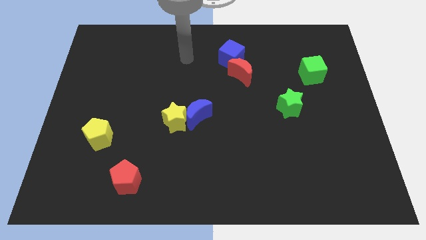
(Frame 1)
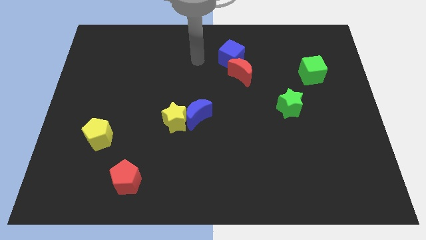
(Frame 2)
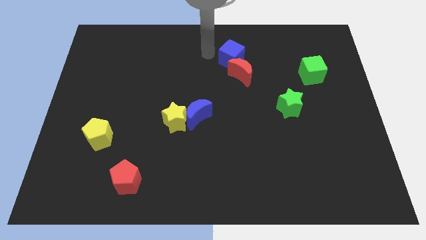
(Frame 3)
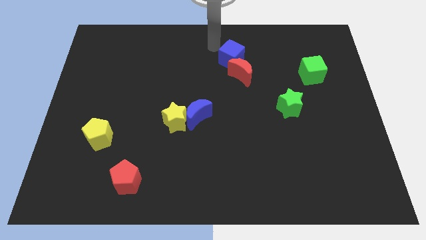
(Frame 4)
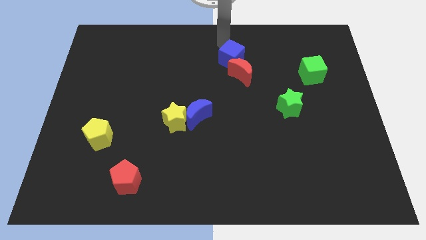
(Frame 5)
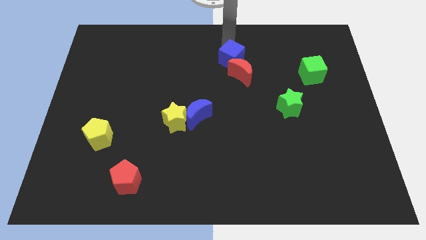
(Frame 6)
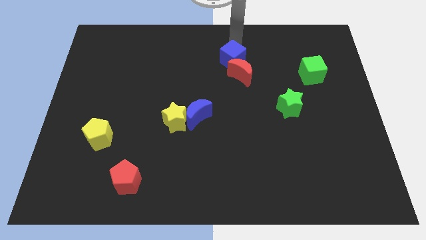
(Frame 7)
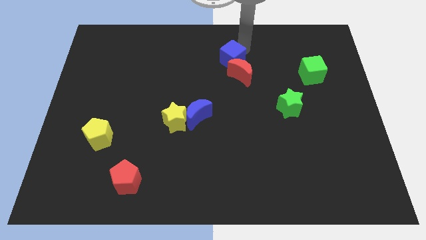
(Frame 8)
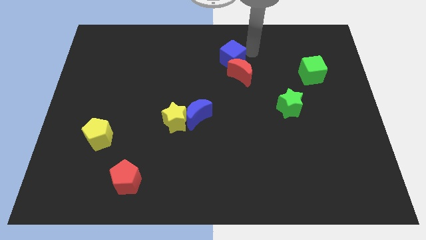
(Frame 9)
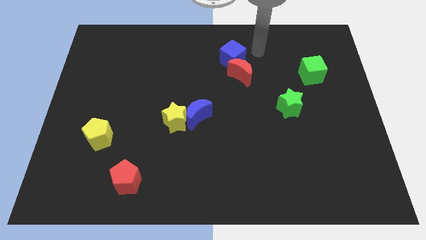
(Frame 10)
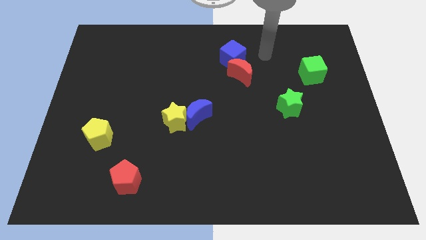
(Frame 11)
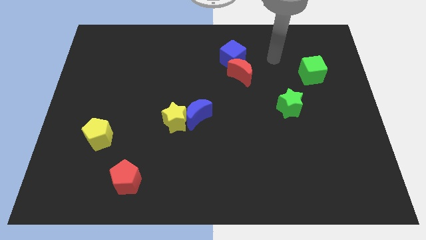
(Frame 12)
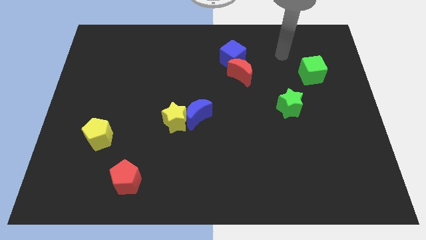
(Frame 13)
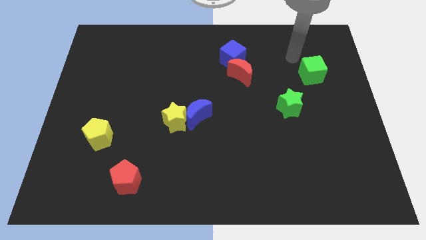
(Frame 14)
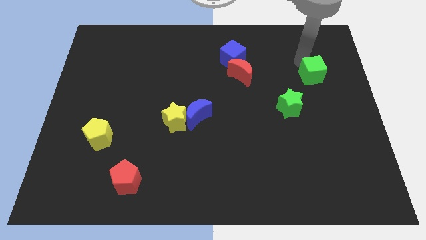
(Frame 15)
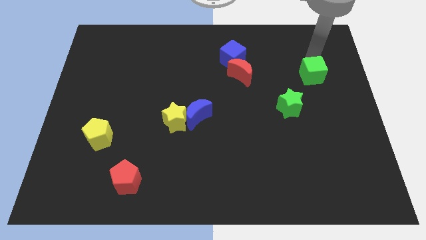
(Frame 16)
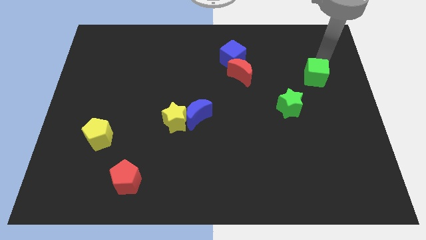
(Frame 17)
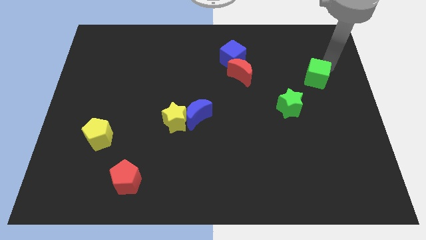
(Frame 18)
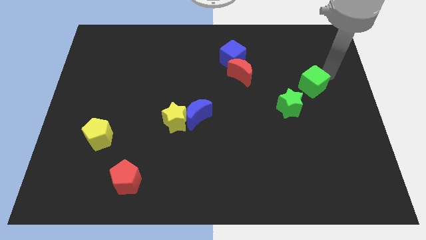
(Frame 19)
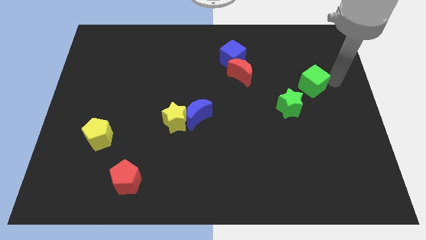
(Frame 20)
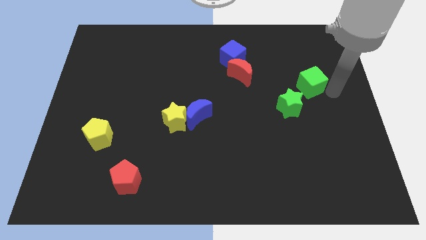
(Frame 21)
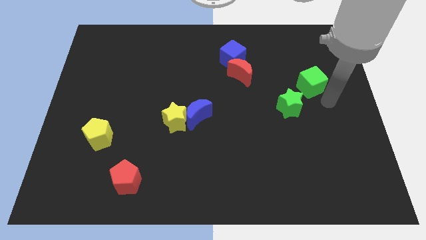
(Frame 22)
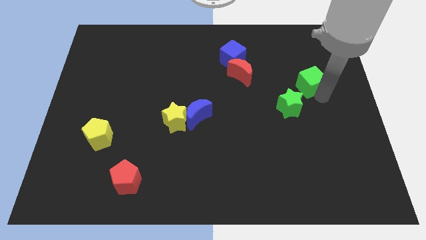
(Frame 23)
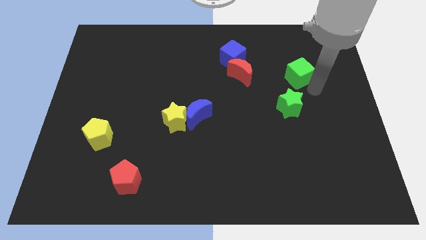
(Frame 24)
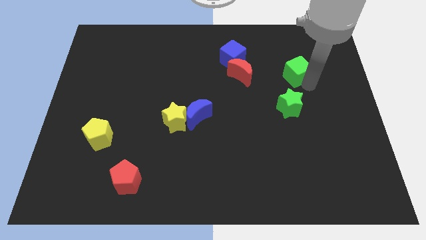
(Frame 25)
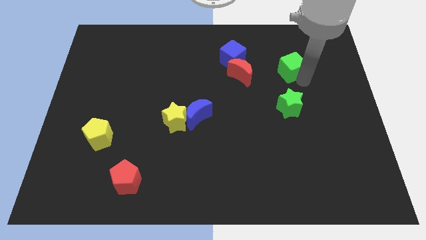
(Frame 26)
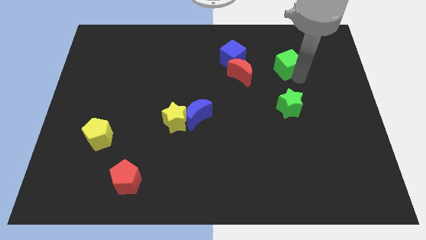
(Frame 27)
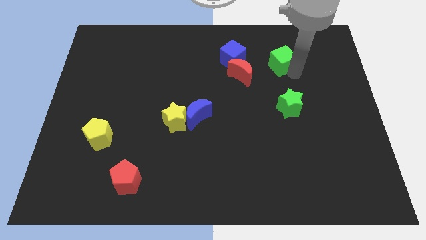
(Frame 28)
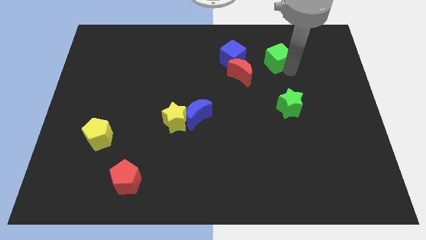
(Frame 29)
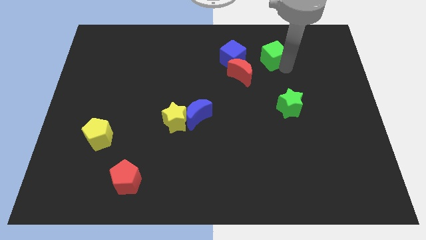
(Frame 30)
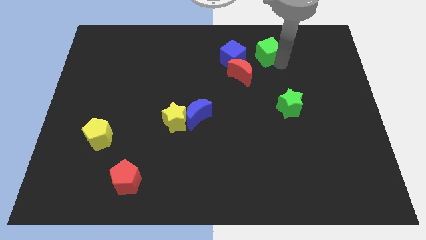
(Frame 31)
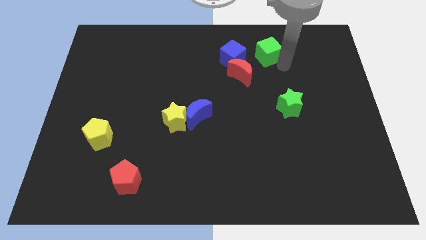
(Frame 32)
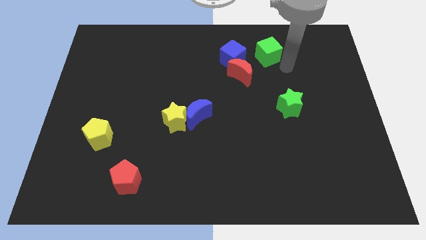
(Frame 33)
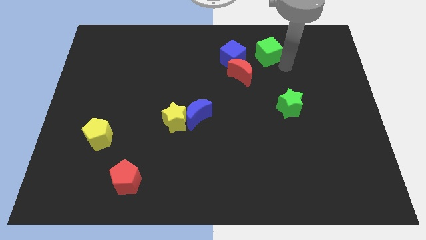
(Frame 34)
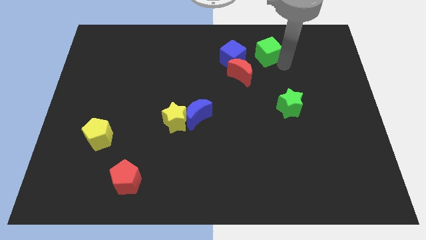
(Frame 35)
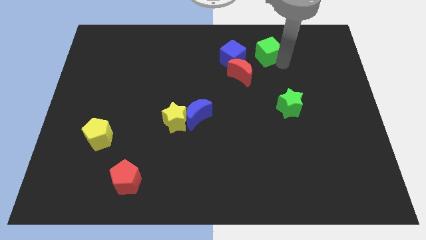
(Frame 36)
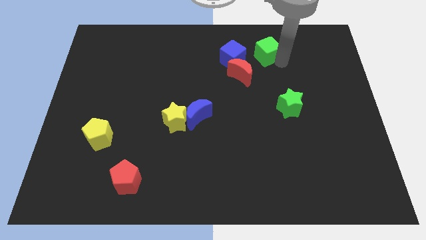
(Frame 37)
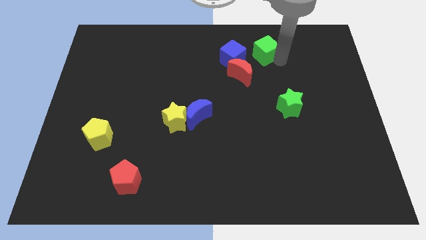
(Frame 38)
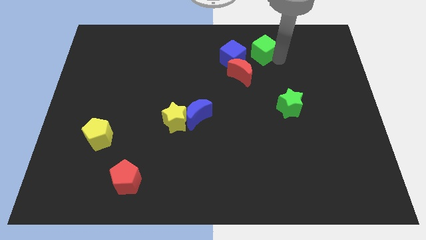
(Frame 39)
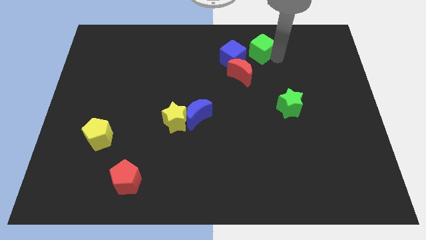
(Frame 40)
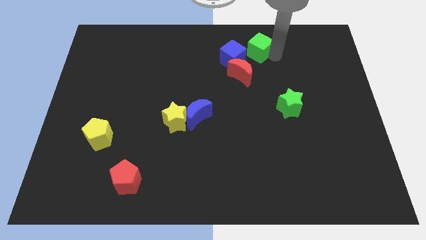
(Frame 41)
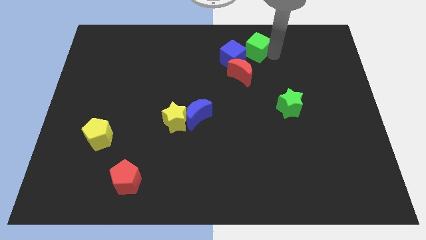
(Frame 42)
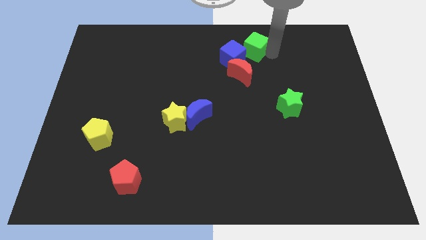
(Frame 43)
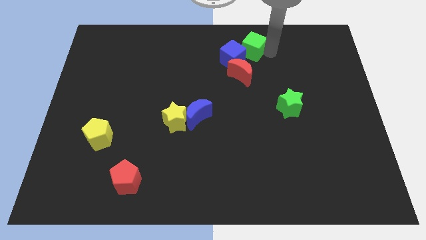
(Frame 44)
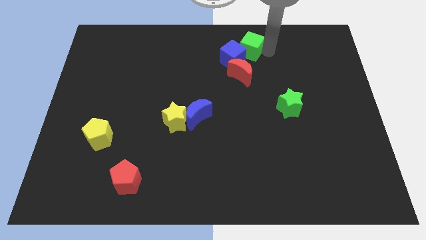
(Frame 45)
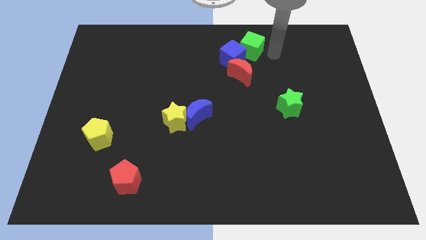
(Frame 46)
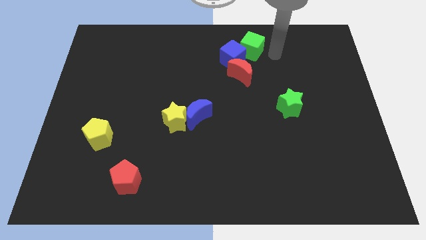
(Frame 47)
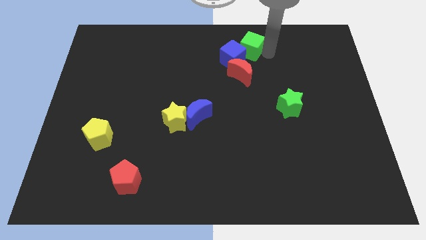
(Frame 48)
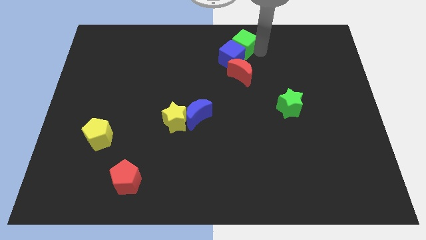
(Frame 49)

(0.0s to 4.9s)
slide the green cube to the towards your base

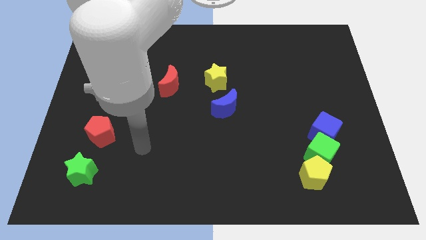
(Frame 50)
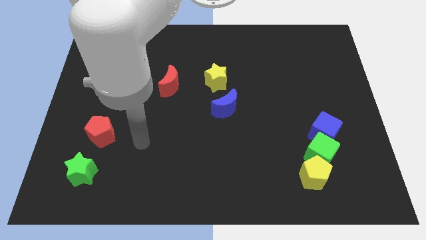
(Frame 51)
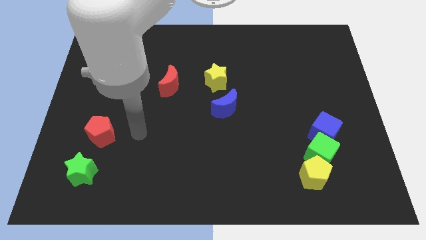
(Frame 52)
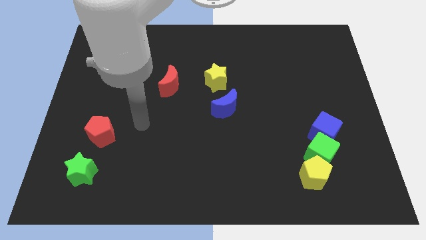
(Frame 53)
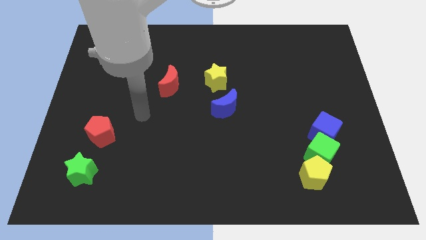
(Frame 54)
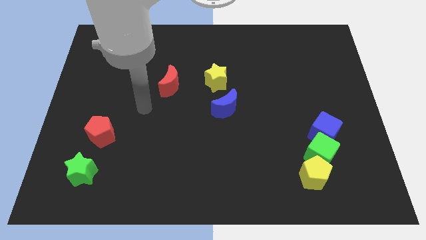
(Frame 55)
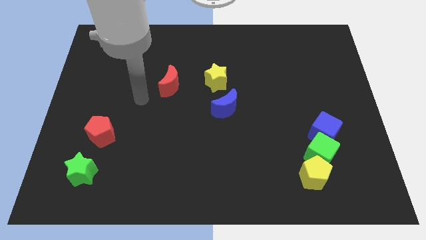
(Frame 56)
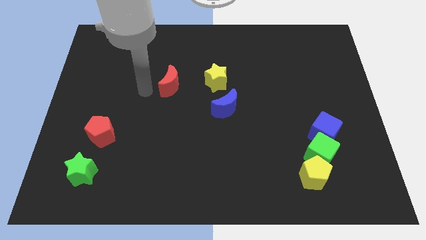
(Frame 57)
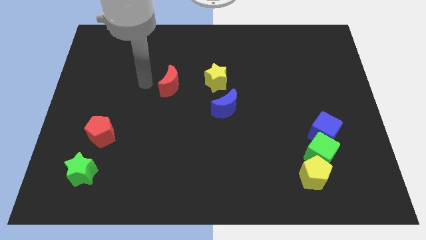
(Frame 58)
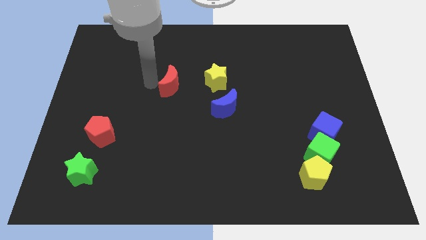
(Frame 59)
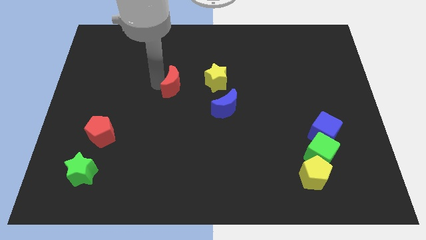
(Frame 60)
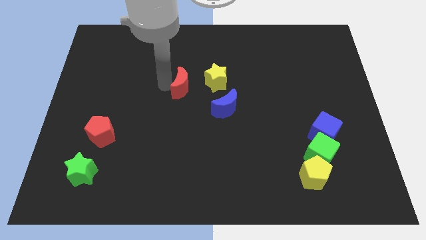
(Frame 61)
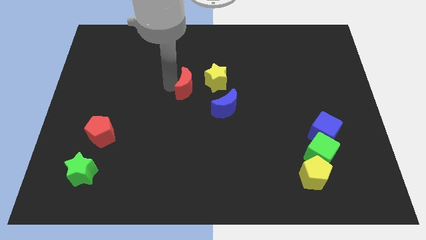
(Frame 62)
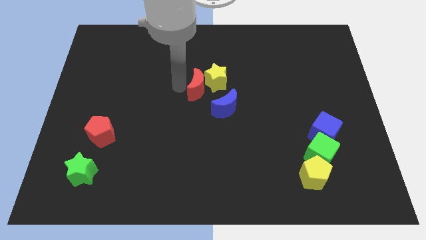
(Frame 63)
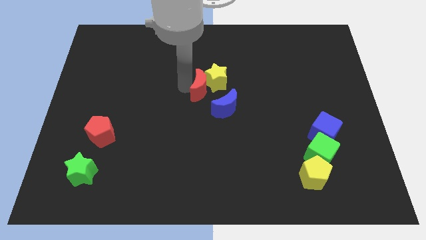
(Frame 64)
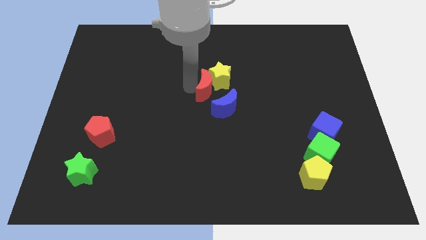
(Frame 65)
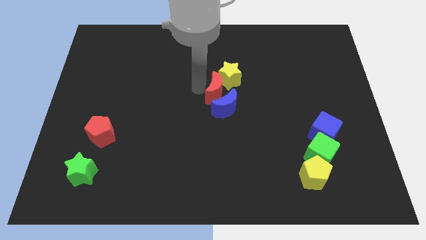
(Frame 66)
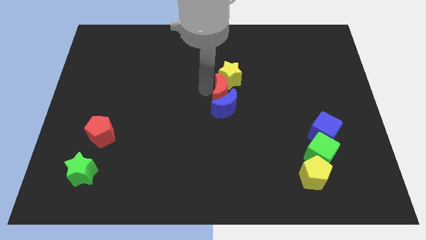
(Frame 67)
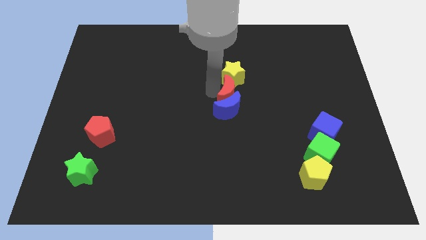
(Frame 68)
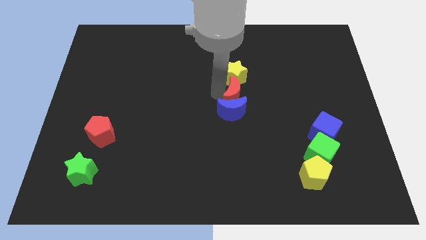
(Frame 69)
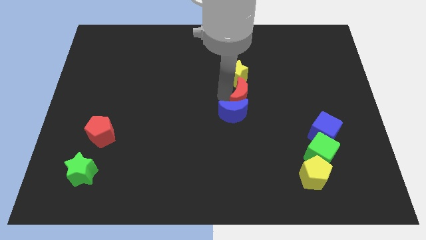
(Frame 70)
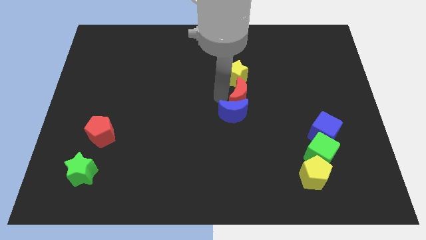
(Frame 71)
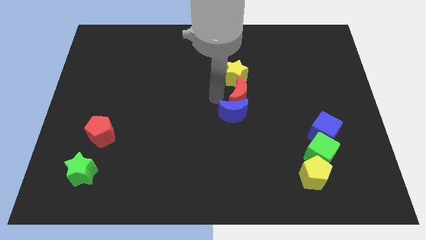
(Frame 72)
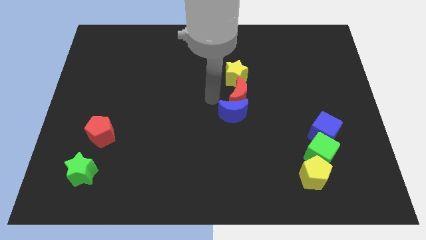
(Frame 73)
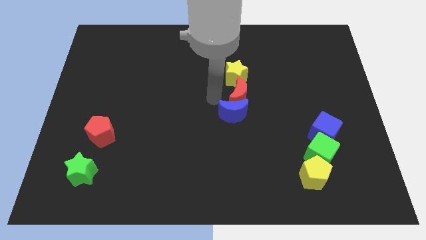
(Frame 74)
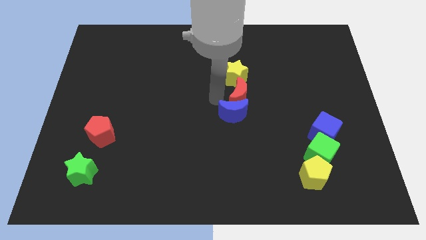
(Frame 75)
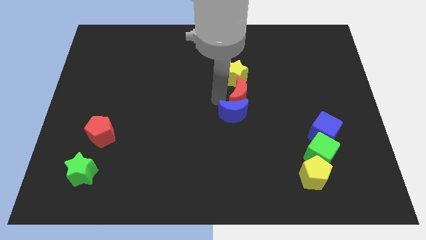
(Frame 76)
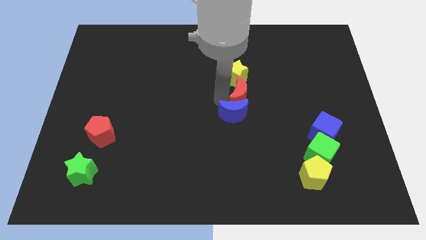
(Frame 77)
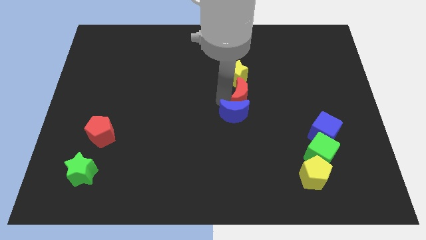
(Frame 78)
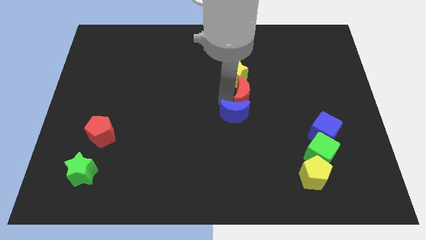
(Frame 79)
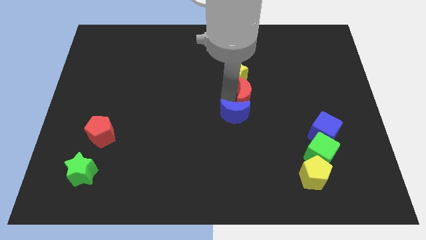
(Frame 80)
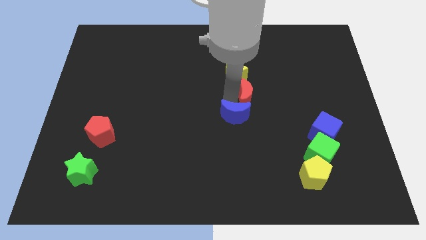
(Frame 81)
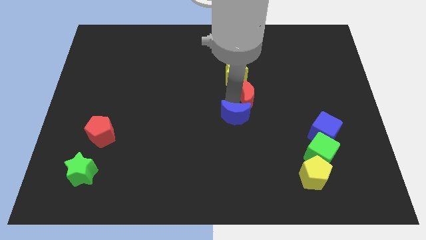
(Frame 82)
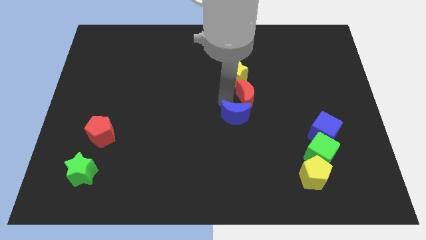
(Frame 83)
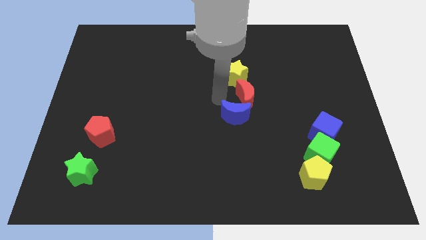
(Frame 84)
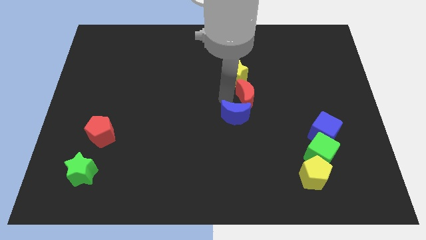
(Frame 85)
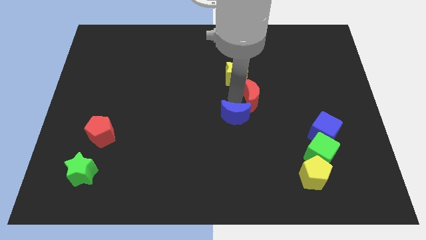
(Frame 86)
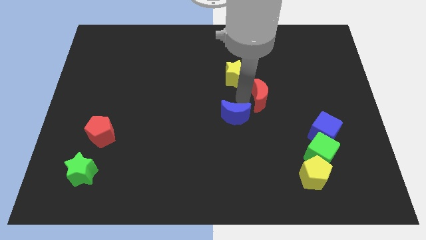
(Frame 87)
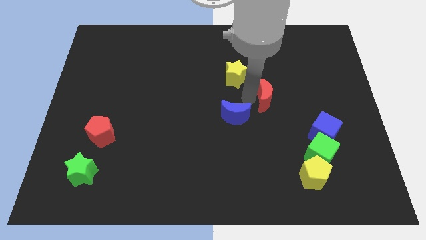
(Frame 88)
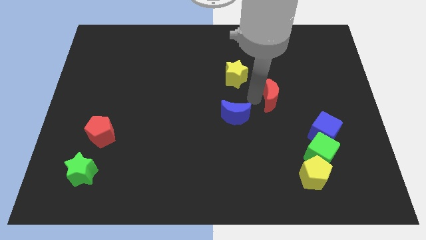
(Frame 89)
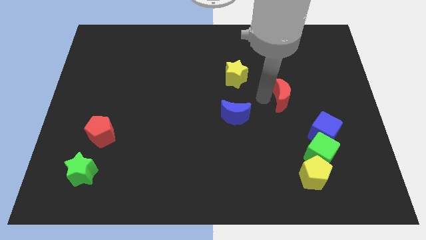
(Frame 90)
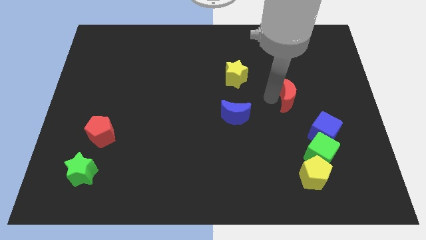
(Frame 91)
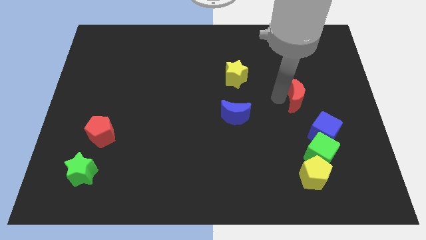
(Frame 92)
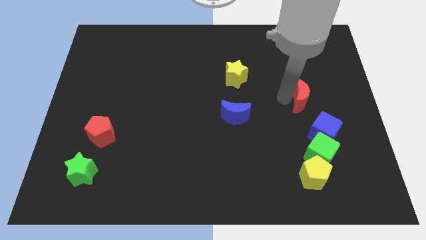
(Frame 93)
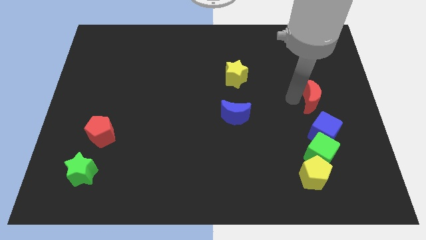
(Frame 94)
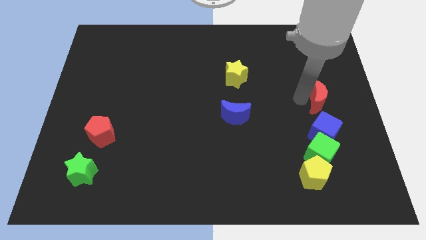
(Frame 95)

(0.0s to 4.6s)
slide the red moon to the center right
